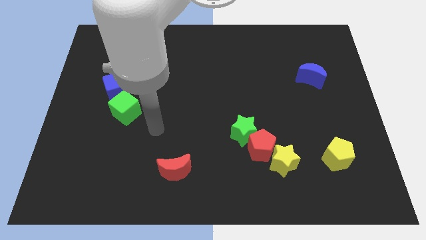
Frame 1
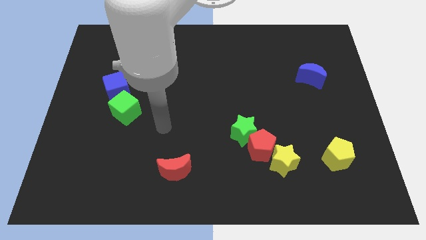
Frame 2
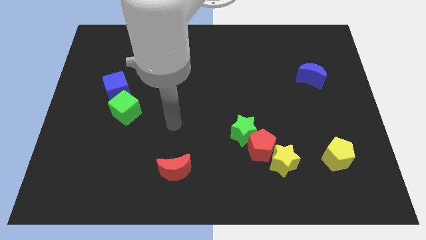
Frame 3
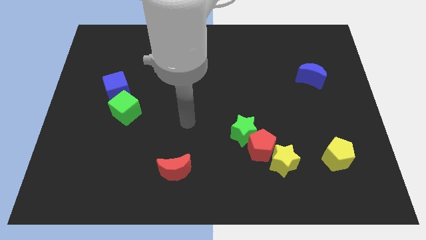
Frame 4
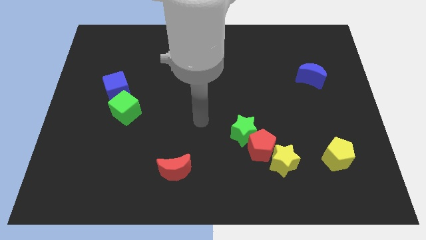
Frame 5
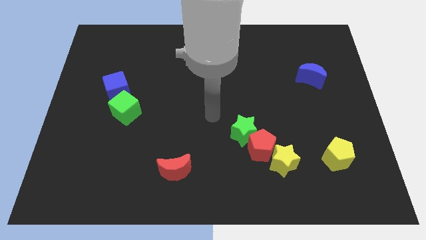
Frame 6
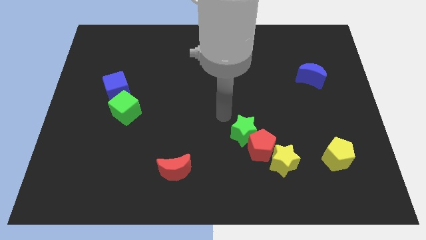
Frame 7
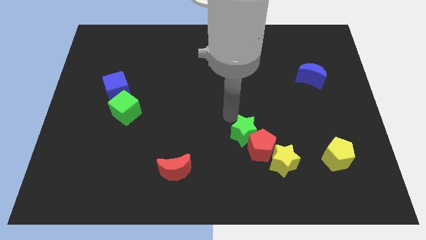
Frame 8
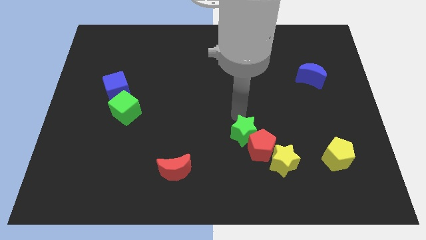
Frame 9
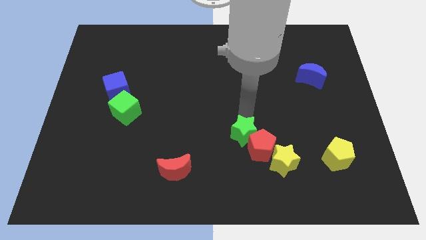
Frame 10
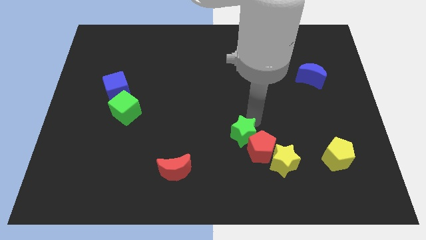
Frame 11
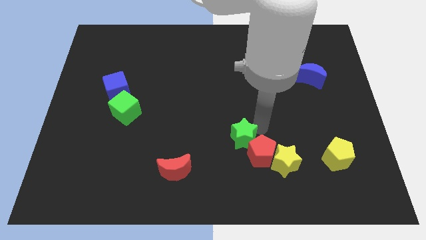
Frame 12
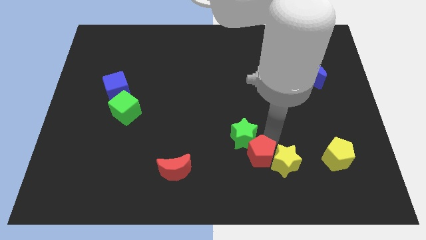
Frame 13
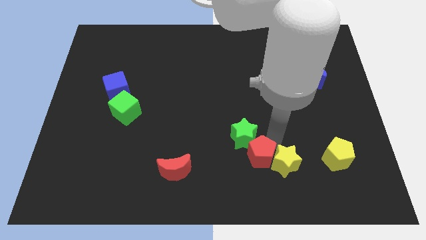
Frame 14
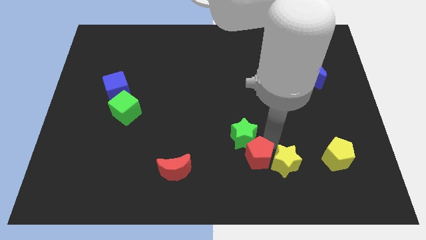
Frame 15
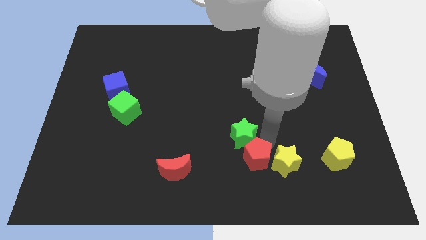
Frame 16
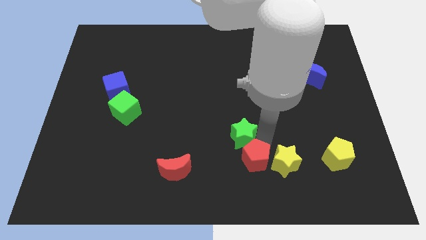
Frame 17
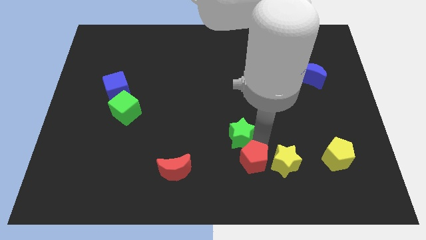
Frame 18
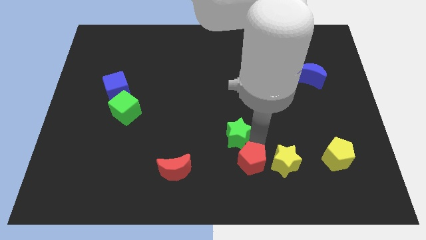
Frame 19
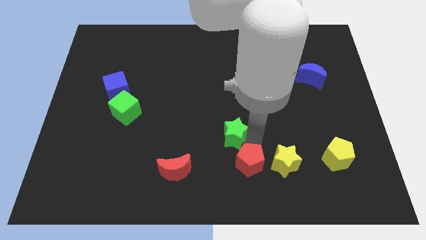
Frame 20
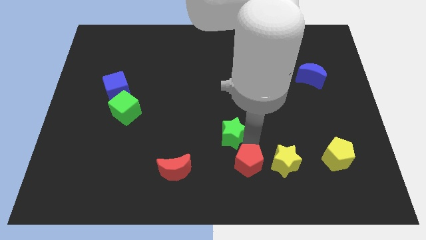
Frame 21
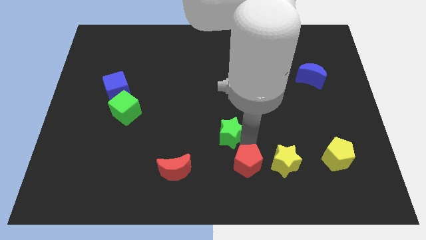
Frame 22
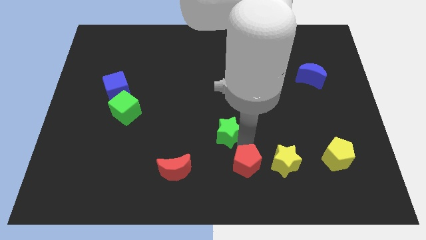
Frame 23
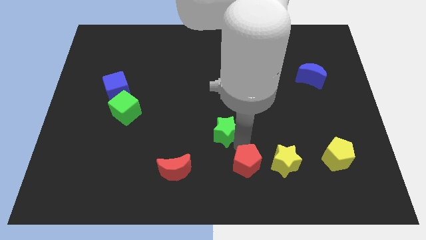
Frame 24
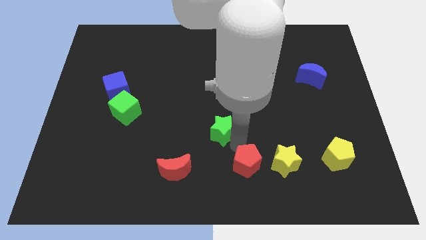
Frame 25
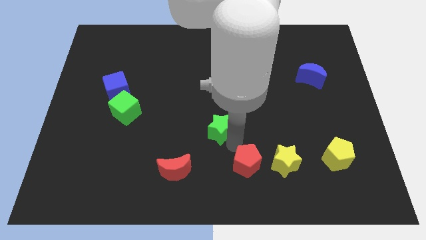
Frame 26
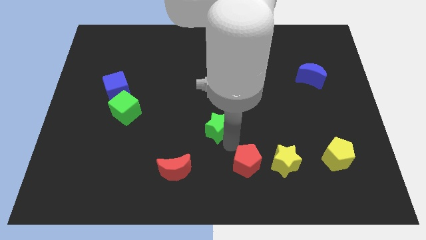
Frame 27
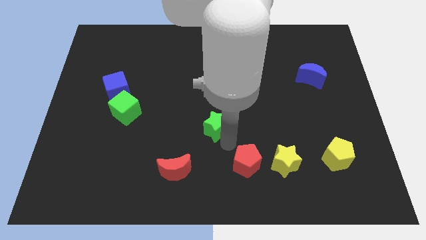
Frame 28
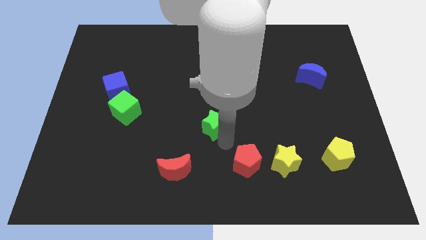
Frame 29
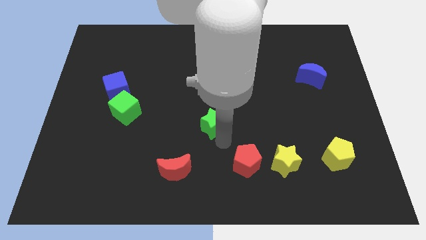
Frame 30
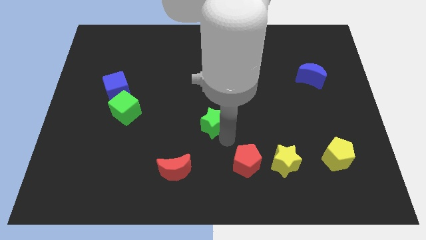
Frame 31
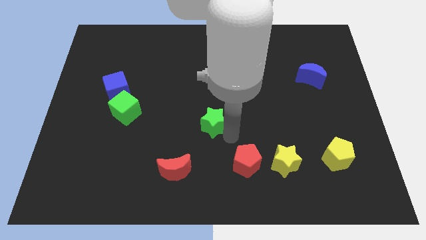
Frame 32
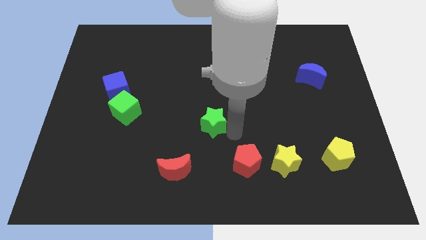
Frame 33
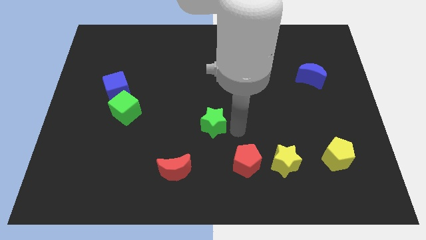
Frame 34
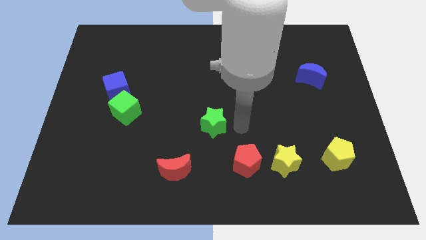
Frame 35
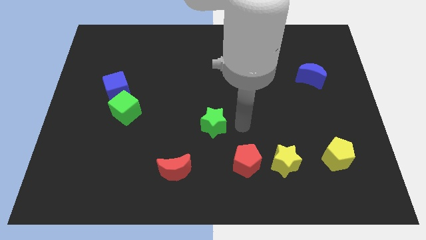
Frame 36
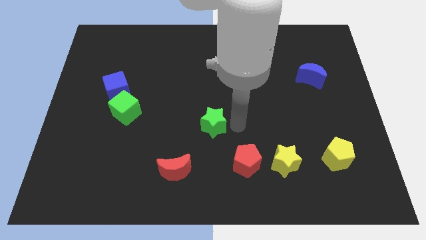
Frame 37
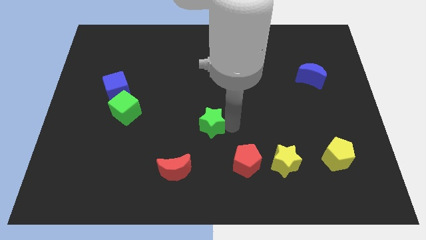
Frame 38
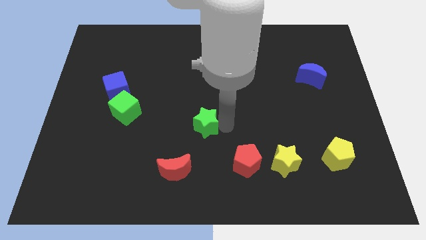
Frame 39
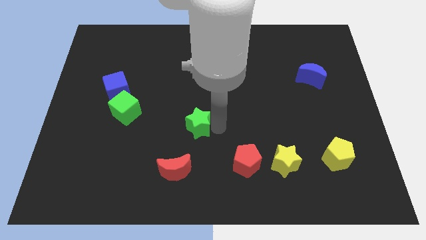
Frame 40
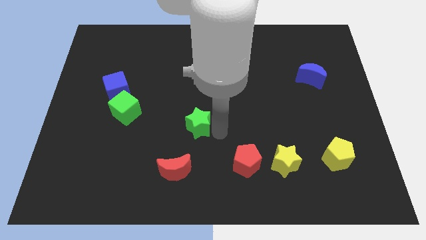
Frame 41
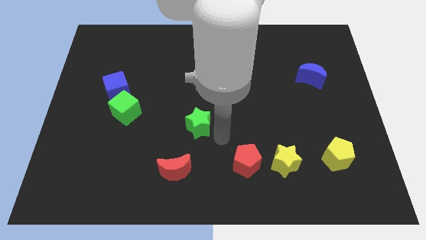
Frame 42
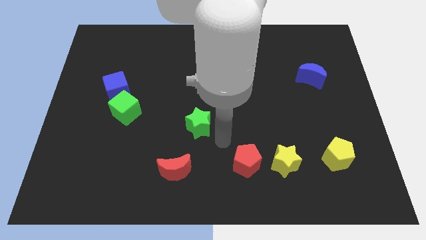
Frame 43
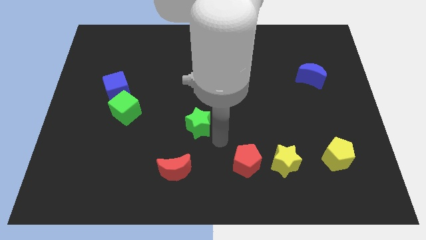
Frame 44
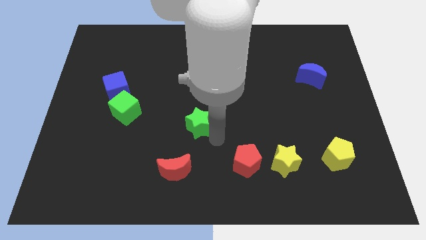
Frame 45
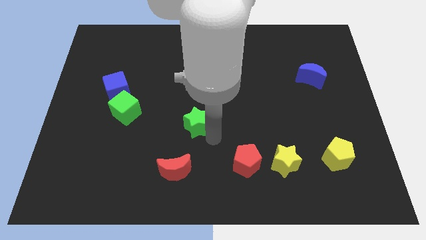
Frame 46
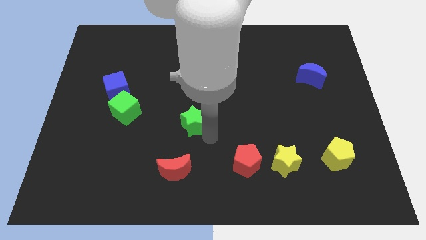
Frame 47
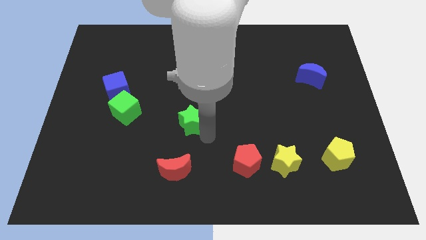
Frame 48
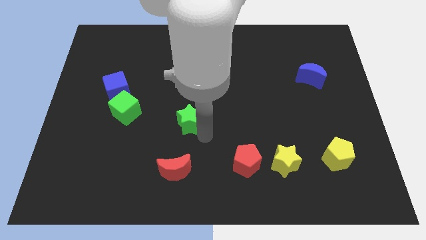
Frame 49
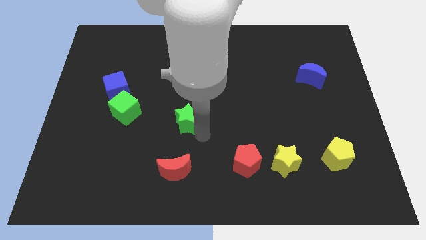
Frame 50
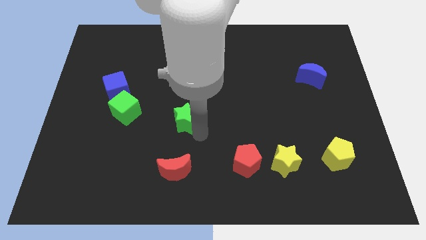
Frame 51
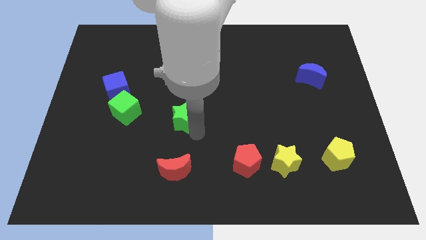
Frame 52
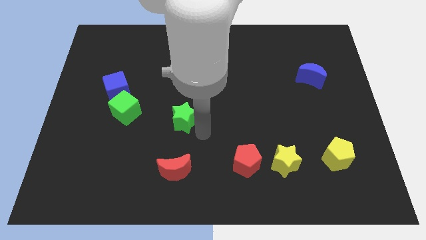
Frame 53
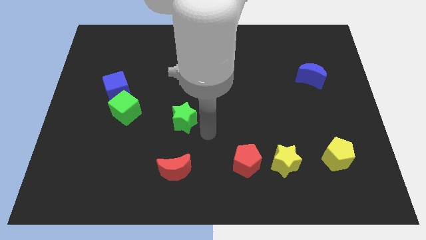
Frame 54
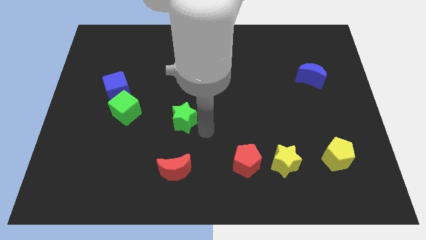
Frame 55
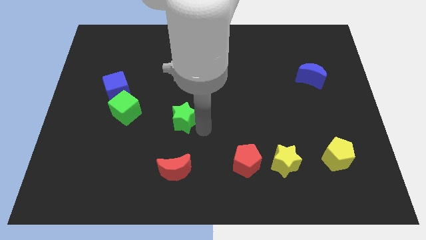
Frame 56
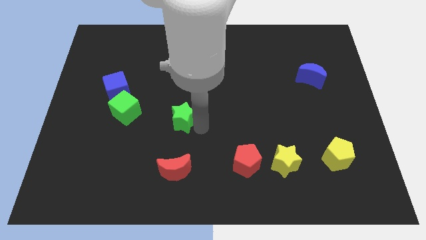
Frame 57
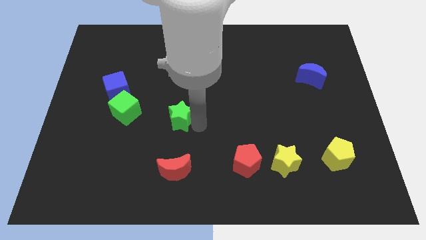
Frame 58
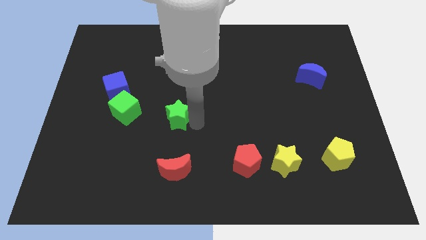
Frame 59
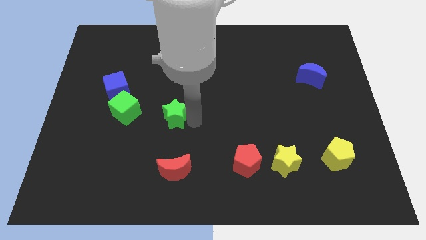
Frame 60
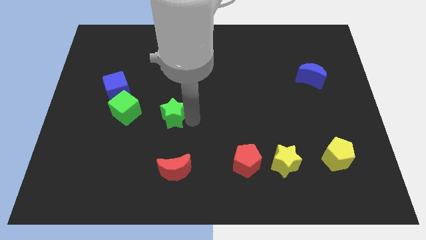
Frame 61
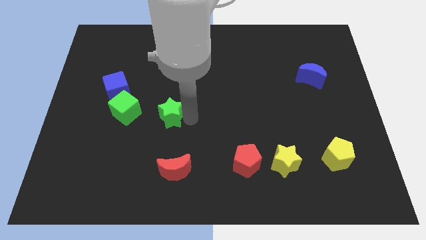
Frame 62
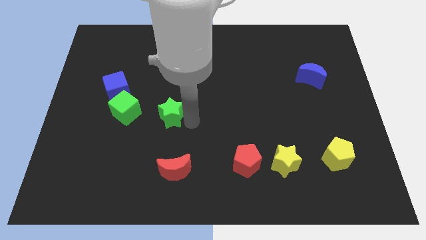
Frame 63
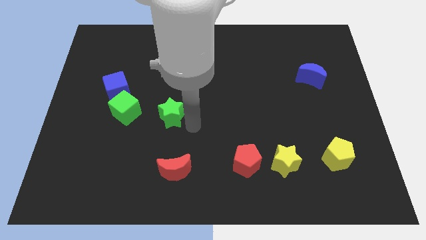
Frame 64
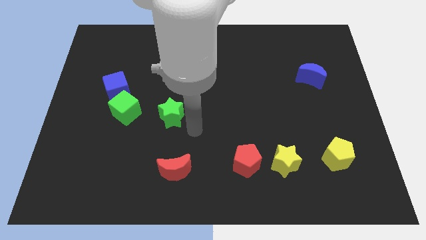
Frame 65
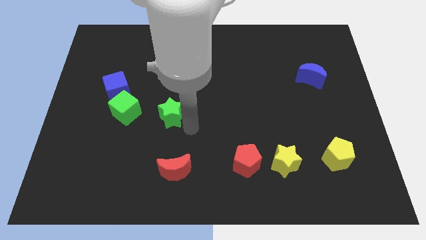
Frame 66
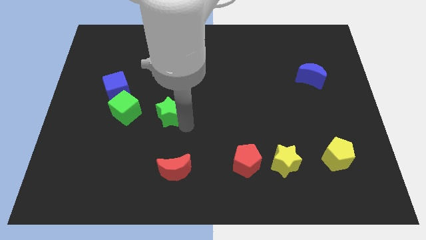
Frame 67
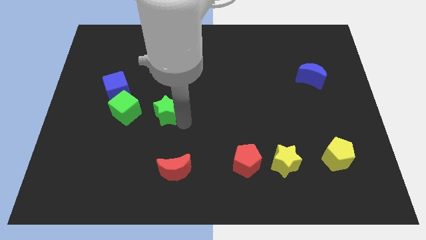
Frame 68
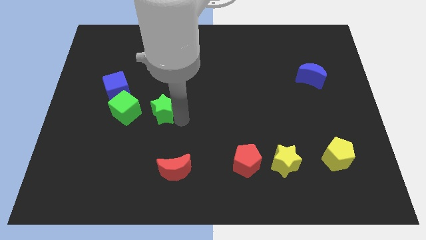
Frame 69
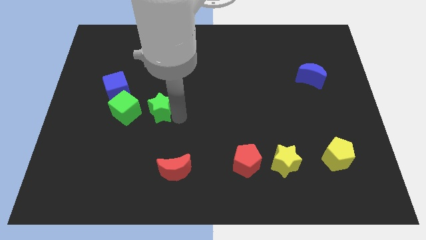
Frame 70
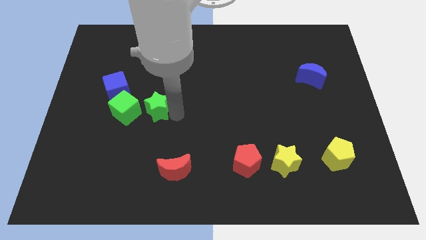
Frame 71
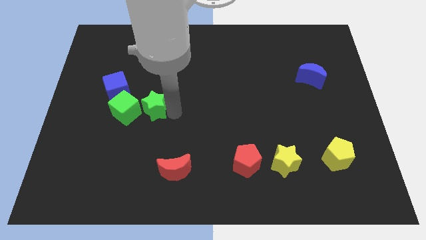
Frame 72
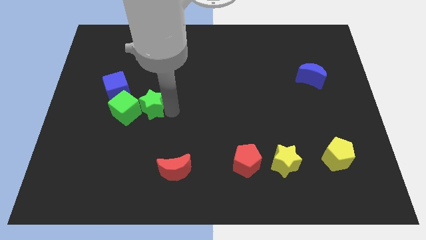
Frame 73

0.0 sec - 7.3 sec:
move the green star towards the green cube

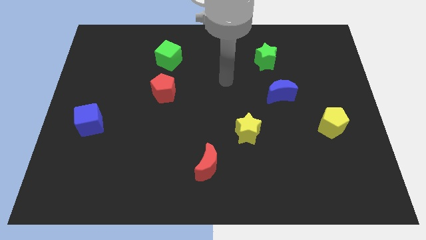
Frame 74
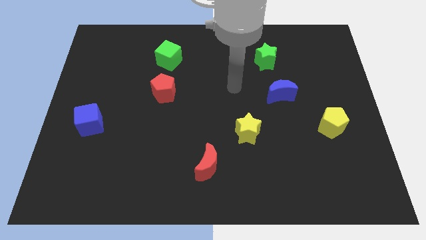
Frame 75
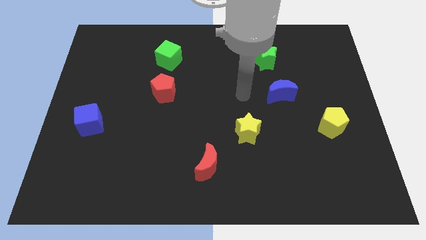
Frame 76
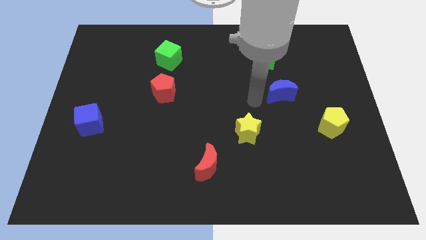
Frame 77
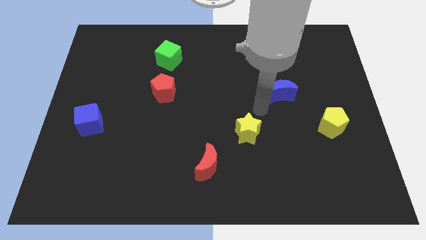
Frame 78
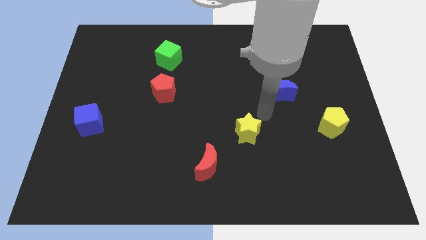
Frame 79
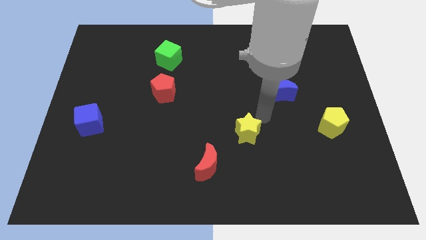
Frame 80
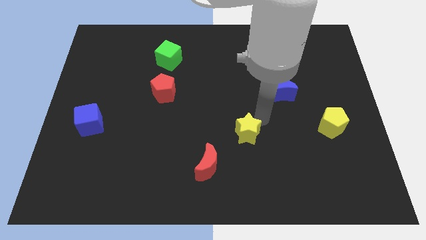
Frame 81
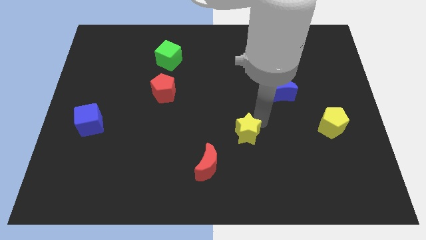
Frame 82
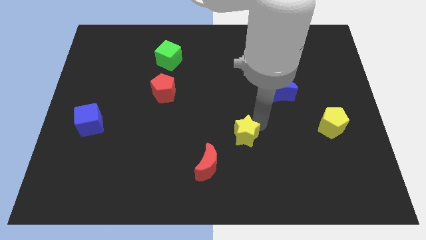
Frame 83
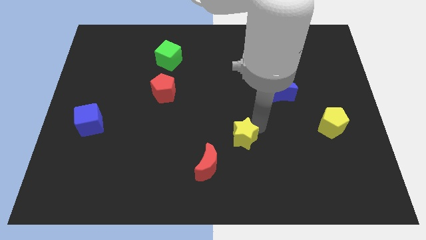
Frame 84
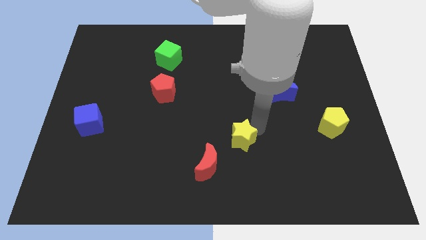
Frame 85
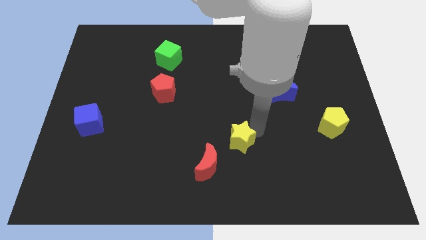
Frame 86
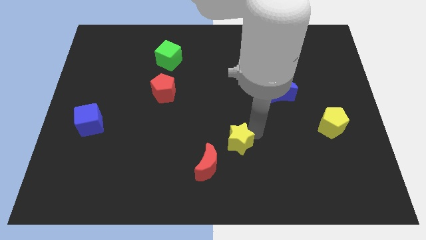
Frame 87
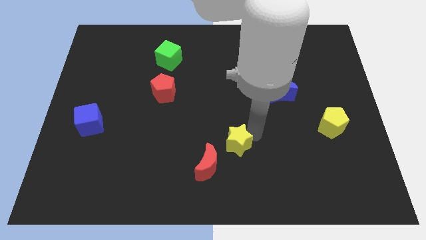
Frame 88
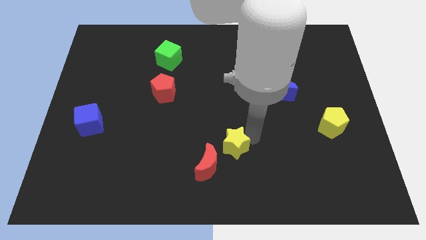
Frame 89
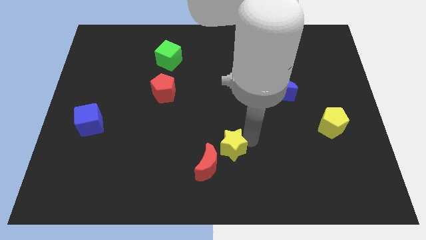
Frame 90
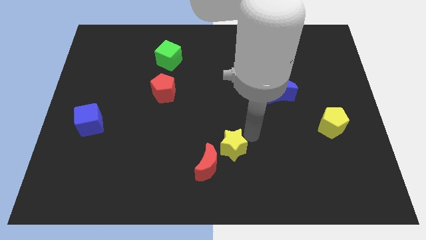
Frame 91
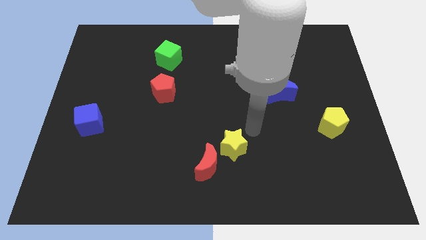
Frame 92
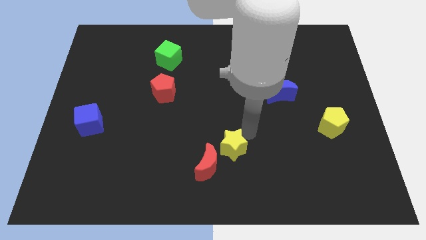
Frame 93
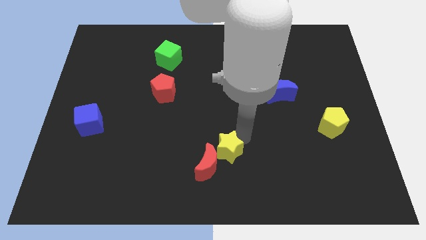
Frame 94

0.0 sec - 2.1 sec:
slide the yellow star close to the red moon
